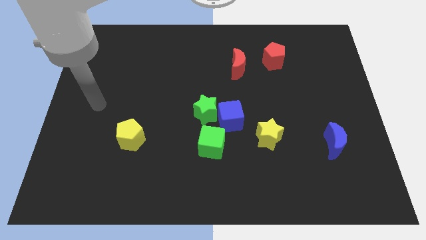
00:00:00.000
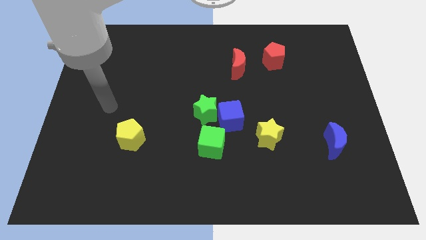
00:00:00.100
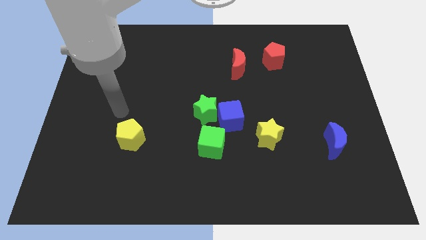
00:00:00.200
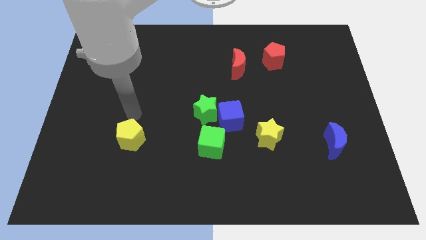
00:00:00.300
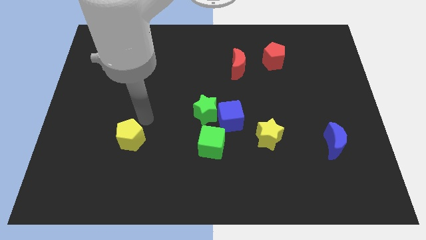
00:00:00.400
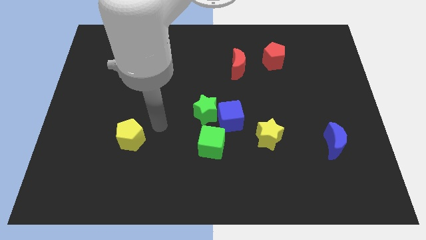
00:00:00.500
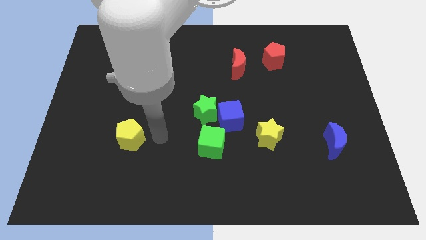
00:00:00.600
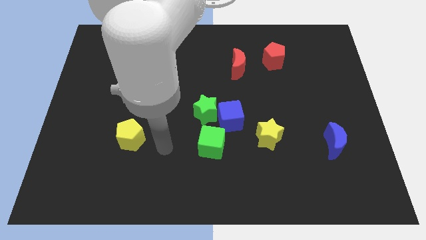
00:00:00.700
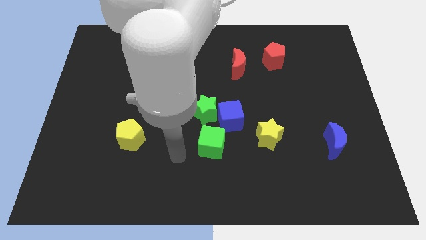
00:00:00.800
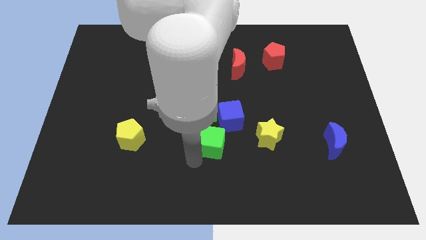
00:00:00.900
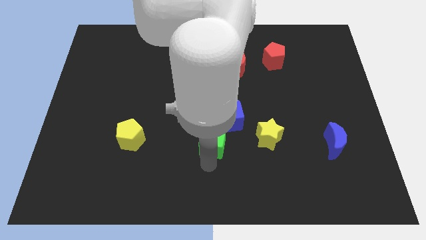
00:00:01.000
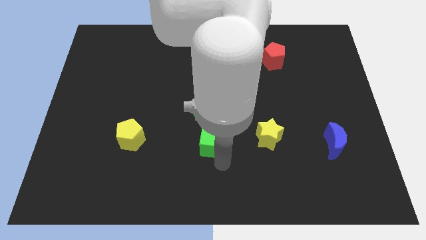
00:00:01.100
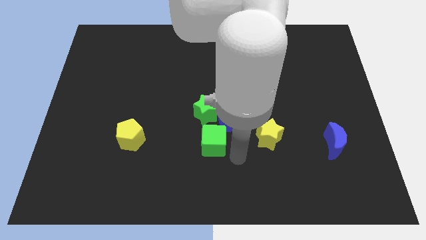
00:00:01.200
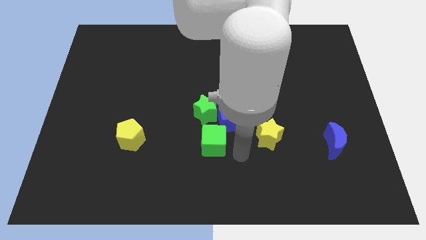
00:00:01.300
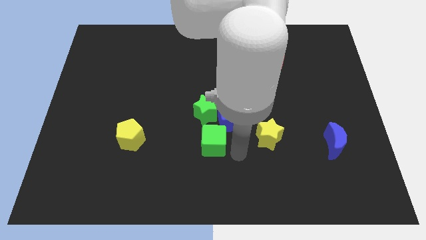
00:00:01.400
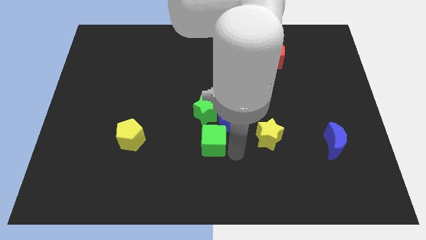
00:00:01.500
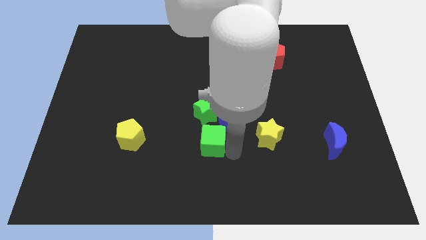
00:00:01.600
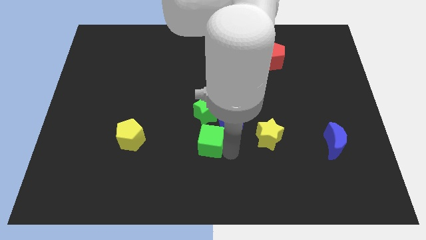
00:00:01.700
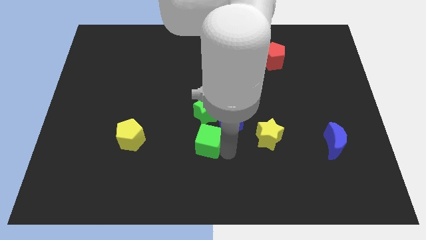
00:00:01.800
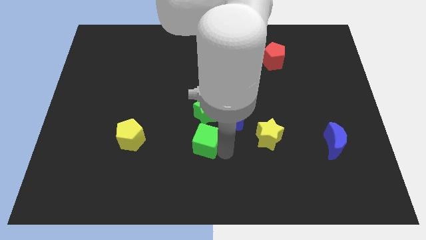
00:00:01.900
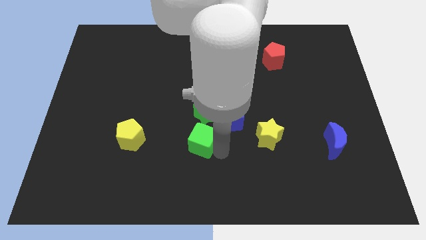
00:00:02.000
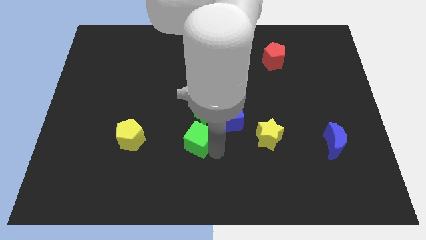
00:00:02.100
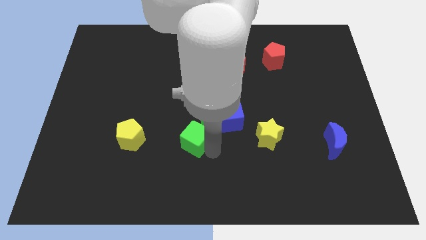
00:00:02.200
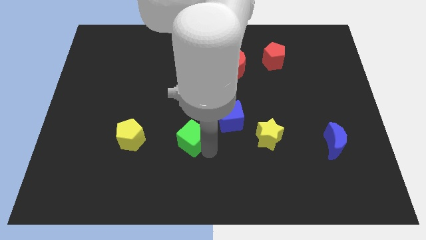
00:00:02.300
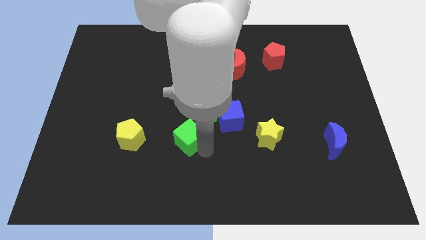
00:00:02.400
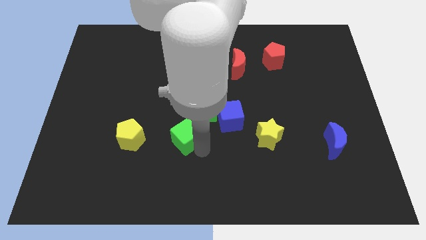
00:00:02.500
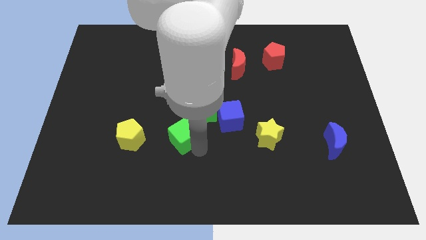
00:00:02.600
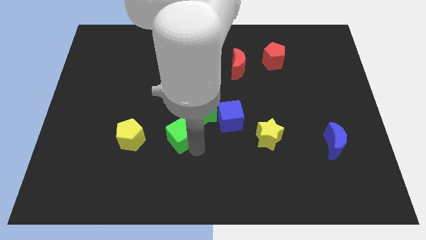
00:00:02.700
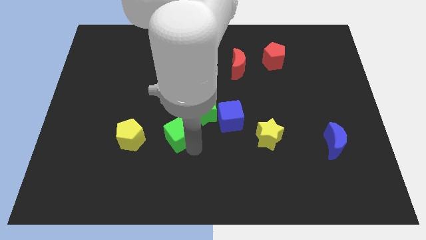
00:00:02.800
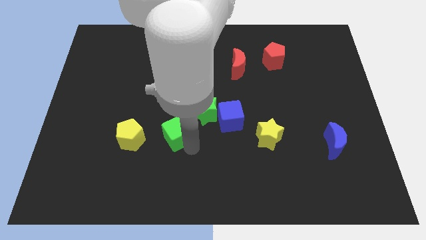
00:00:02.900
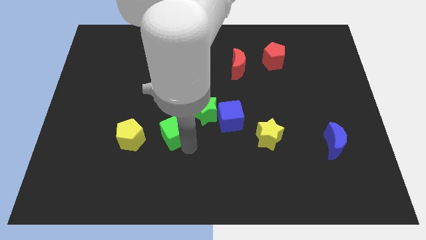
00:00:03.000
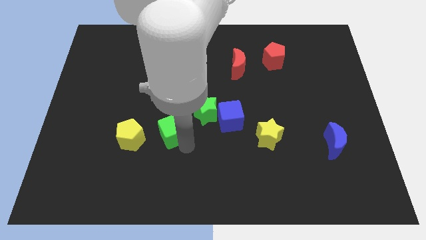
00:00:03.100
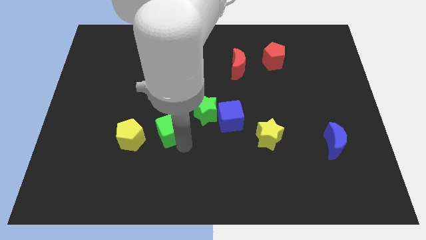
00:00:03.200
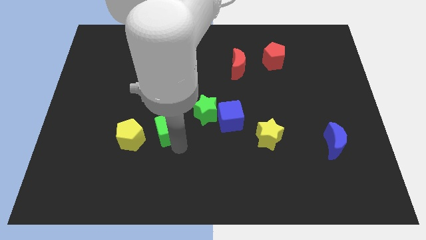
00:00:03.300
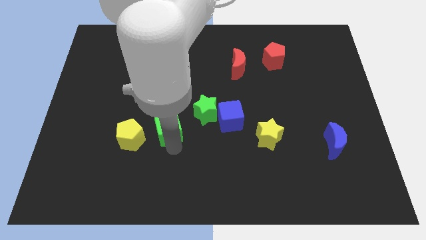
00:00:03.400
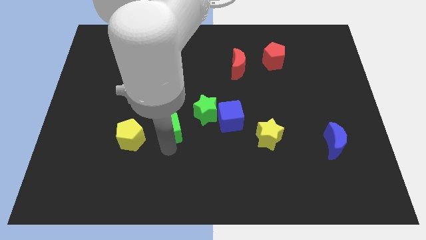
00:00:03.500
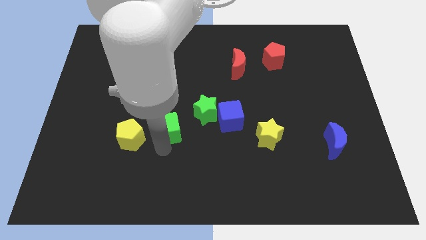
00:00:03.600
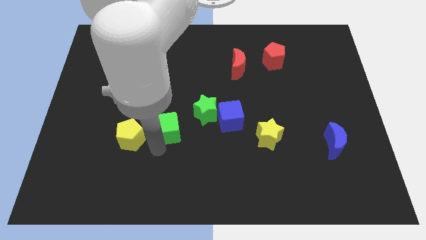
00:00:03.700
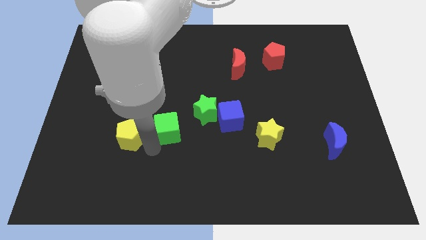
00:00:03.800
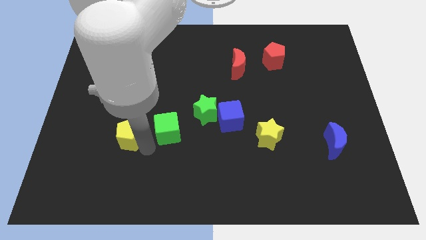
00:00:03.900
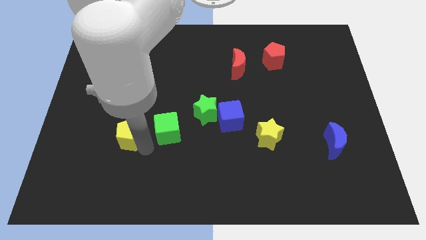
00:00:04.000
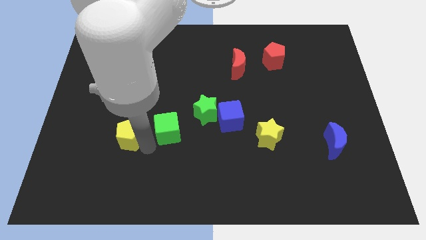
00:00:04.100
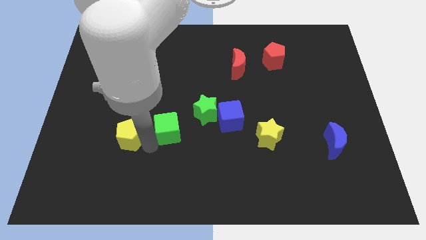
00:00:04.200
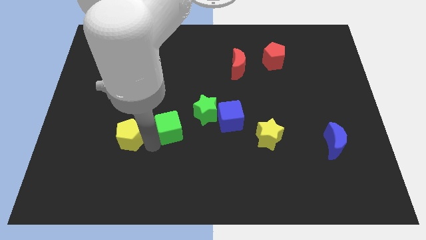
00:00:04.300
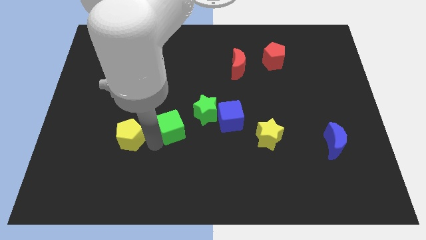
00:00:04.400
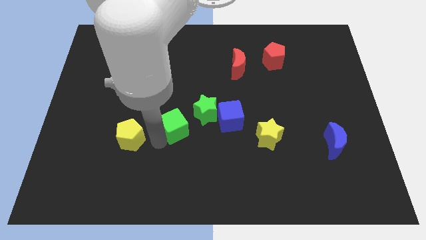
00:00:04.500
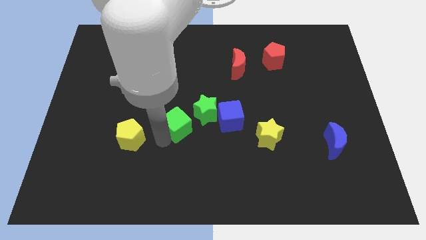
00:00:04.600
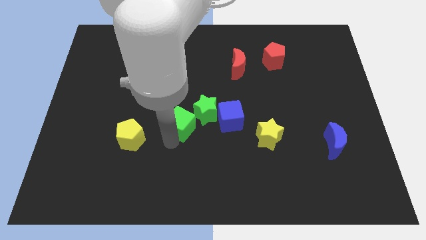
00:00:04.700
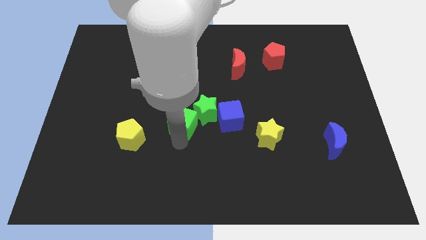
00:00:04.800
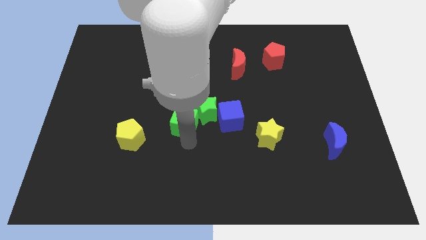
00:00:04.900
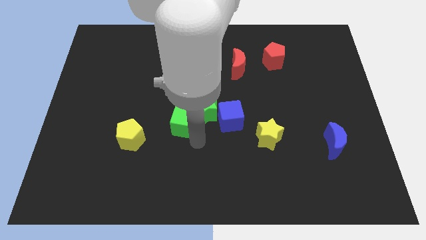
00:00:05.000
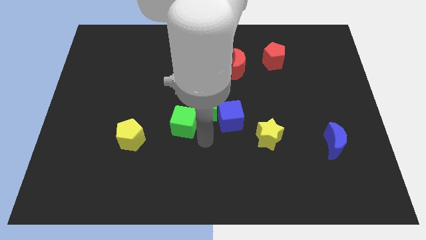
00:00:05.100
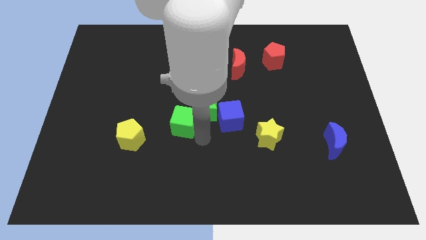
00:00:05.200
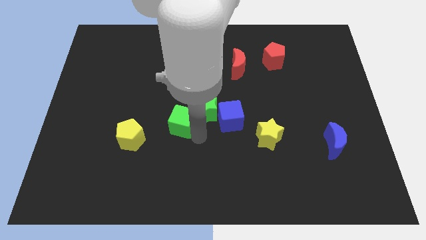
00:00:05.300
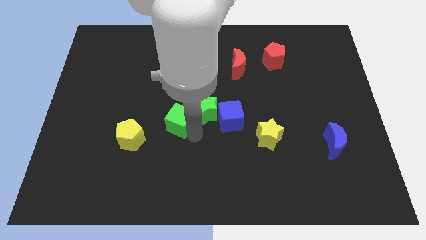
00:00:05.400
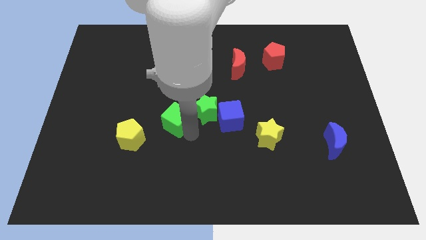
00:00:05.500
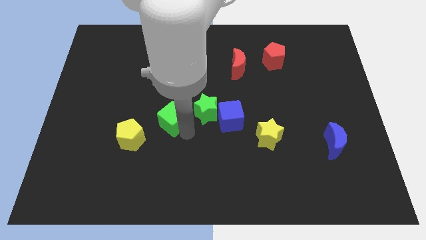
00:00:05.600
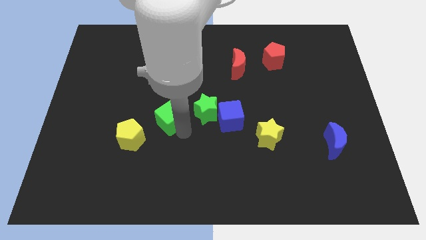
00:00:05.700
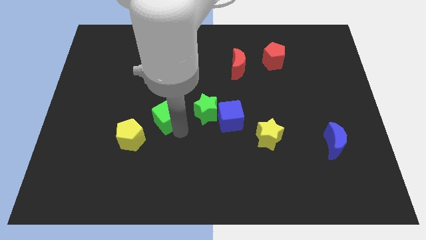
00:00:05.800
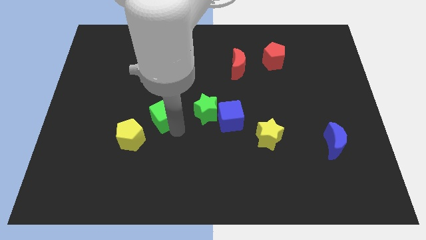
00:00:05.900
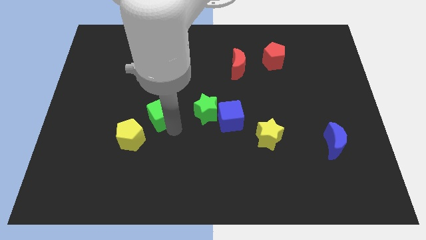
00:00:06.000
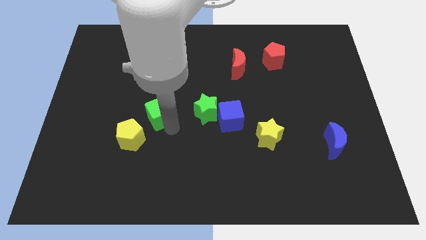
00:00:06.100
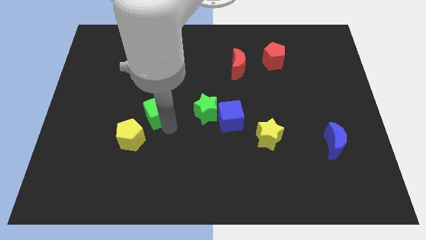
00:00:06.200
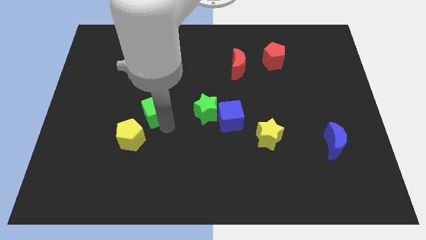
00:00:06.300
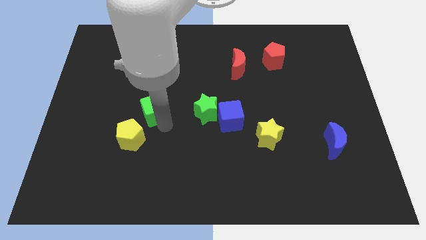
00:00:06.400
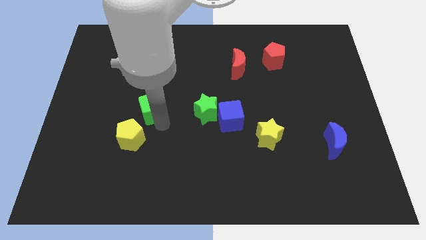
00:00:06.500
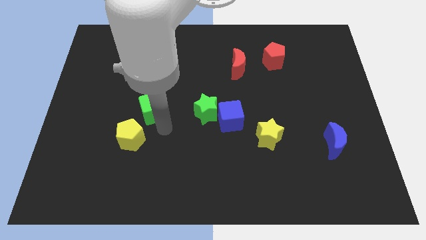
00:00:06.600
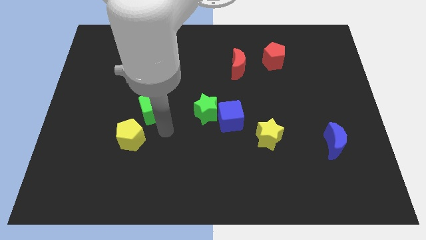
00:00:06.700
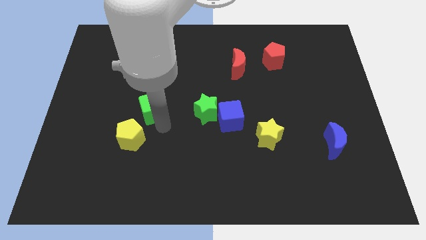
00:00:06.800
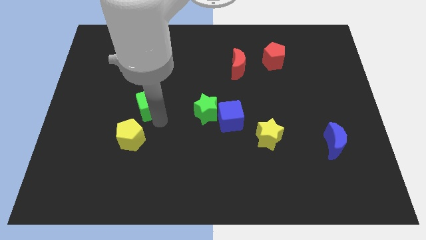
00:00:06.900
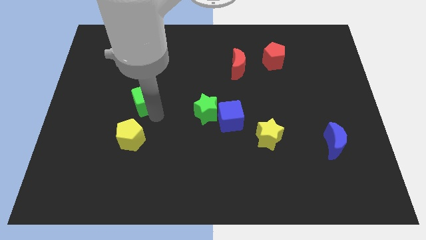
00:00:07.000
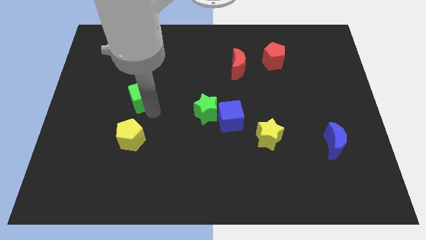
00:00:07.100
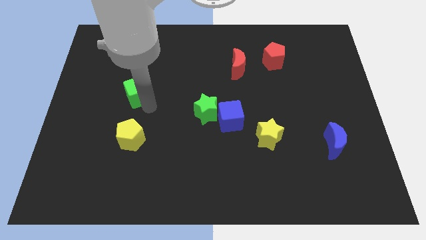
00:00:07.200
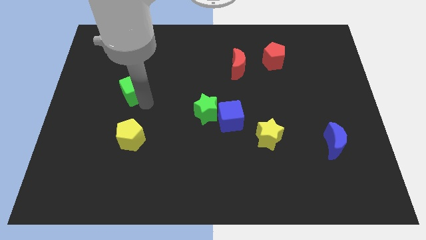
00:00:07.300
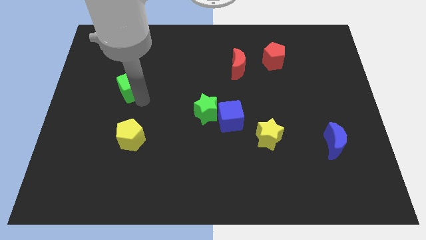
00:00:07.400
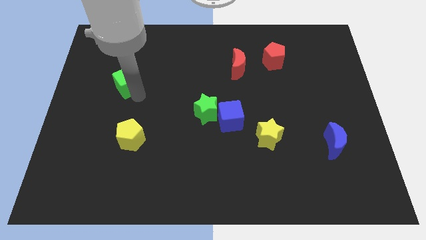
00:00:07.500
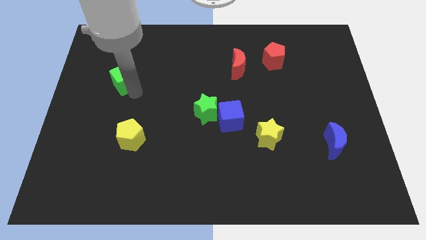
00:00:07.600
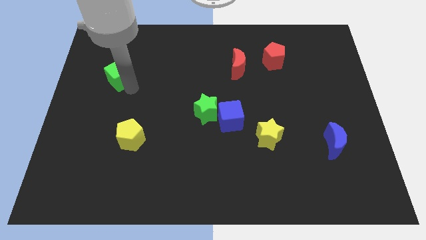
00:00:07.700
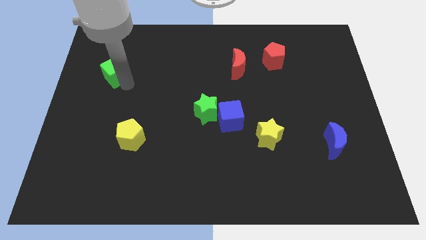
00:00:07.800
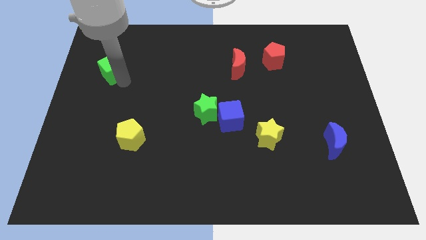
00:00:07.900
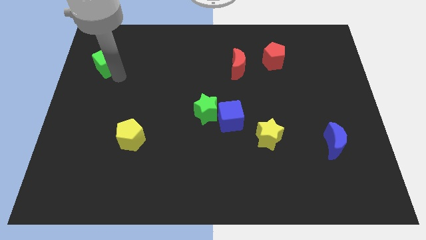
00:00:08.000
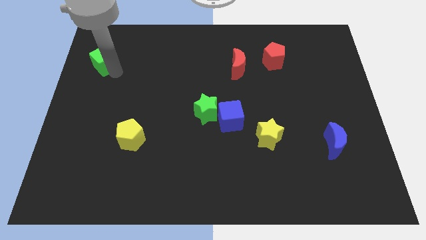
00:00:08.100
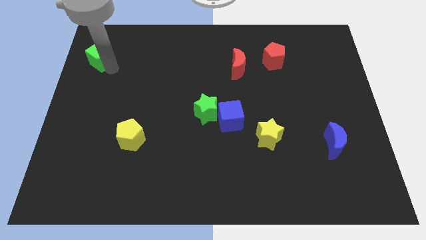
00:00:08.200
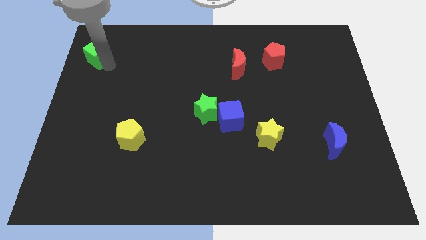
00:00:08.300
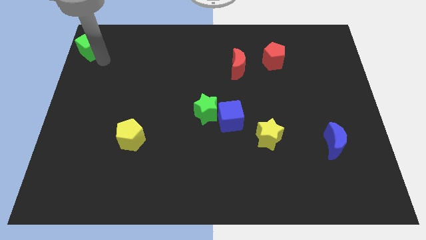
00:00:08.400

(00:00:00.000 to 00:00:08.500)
slide the green cube to the top left
